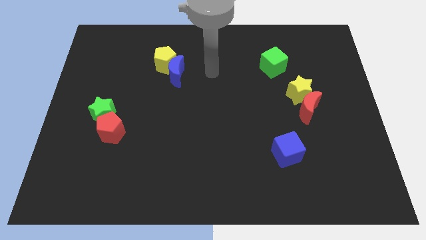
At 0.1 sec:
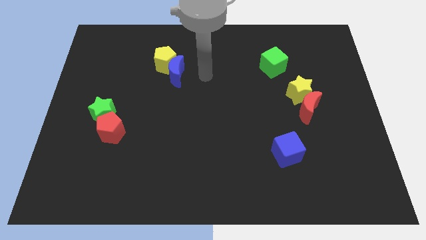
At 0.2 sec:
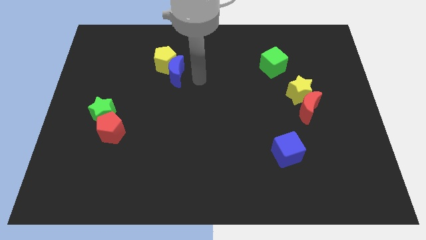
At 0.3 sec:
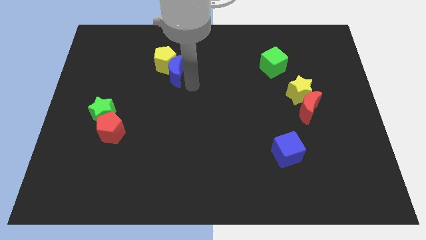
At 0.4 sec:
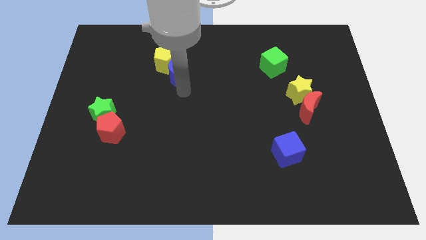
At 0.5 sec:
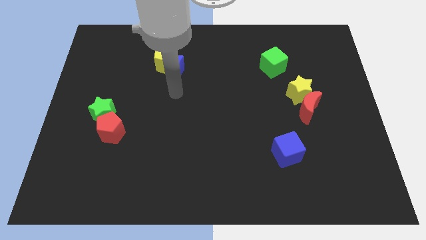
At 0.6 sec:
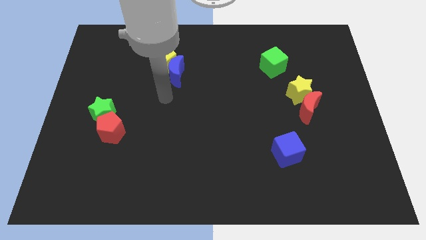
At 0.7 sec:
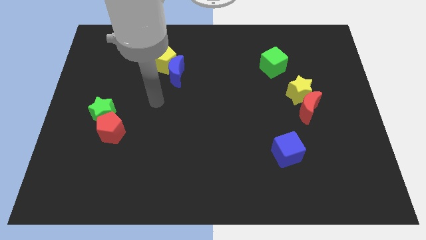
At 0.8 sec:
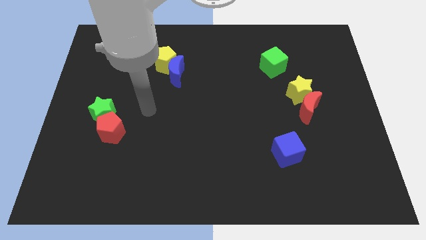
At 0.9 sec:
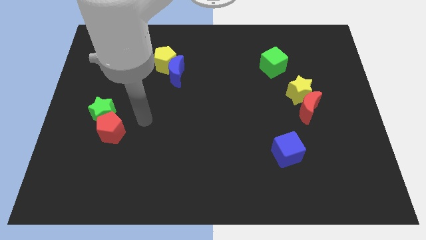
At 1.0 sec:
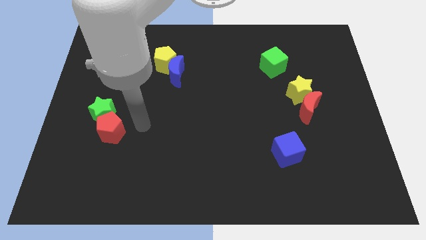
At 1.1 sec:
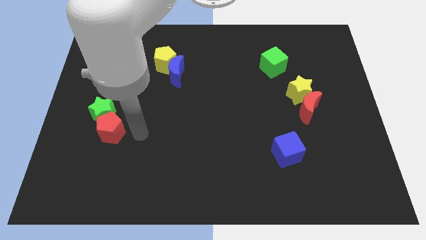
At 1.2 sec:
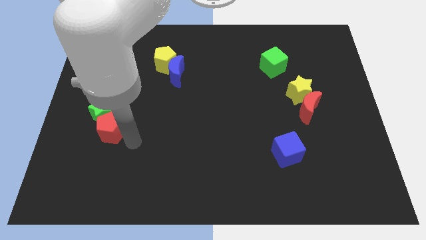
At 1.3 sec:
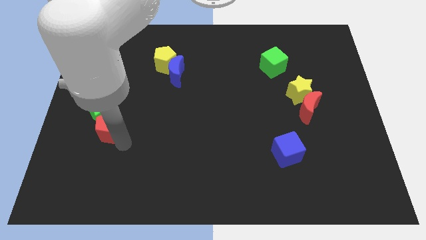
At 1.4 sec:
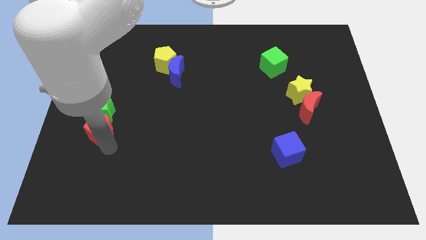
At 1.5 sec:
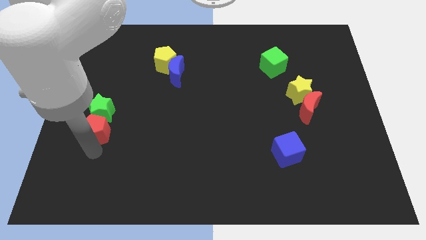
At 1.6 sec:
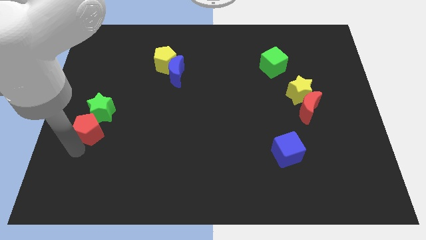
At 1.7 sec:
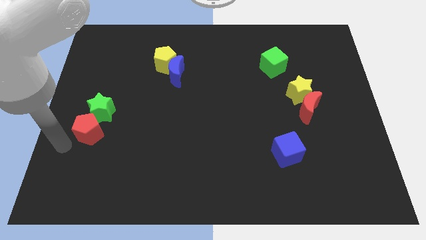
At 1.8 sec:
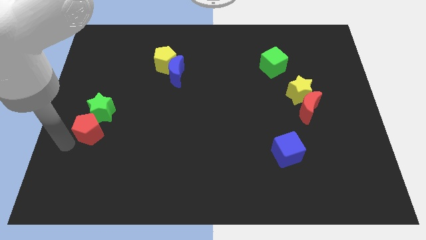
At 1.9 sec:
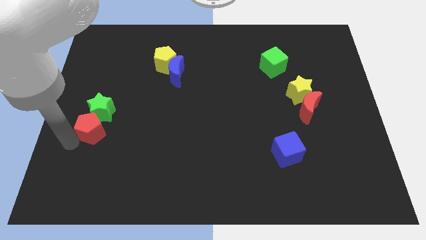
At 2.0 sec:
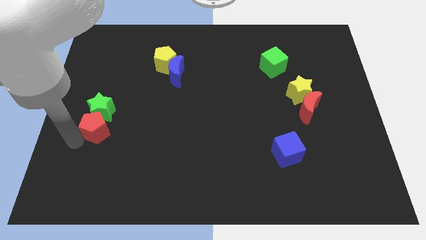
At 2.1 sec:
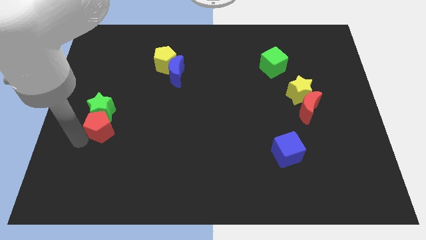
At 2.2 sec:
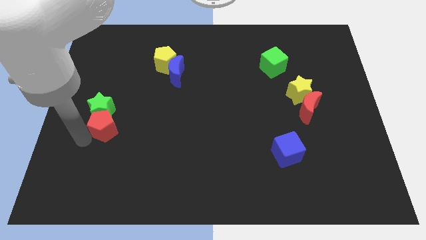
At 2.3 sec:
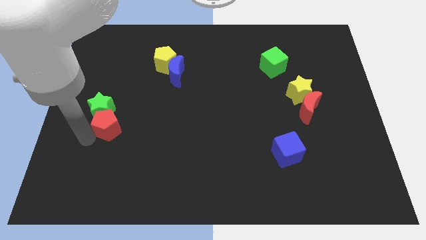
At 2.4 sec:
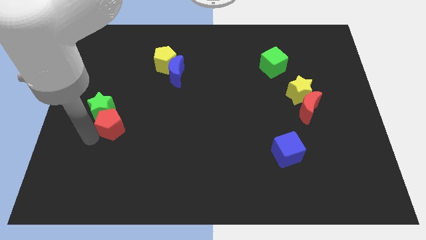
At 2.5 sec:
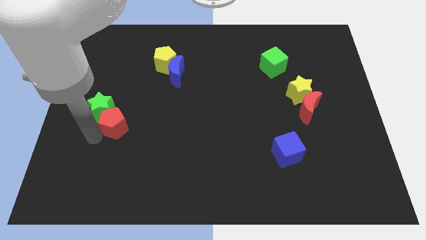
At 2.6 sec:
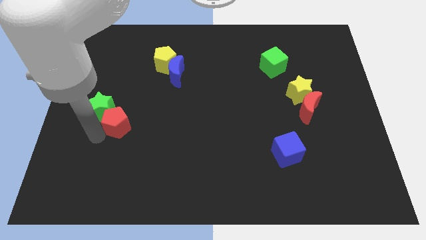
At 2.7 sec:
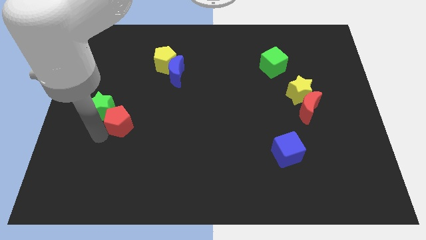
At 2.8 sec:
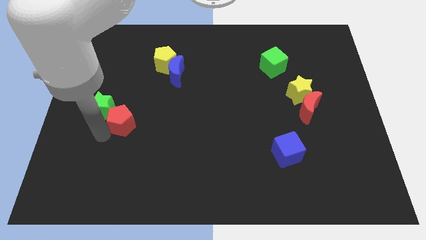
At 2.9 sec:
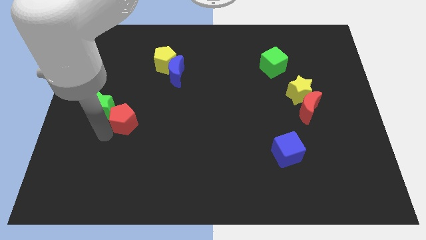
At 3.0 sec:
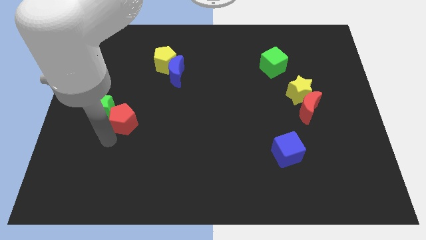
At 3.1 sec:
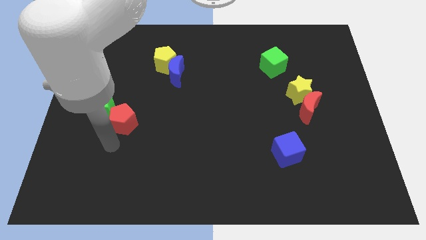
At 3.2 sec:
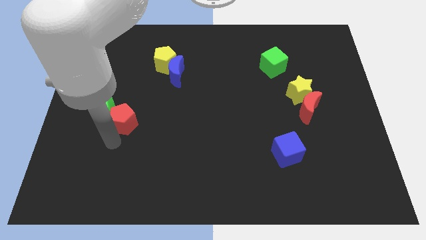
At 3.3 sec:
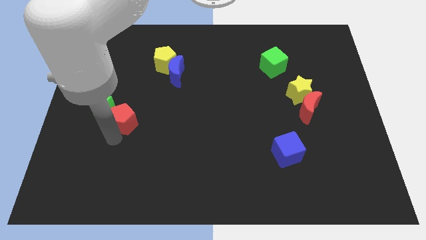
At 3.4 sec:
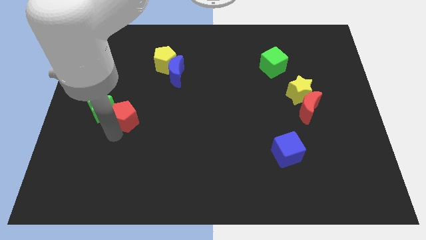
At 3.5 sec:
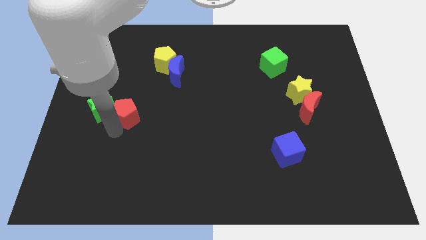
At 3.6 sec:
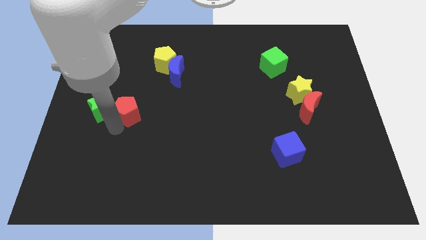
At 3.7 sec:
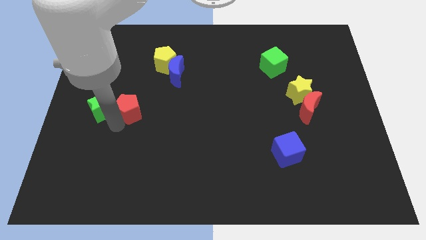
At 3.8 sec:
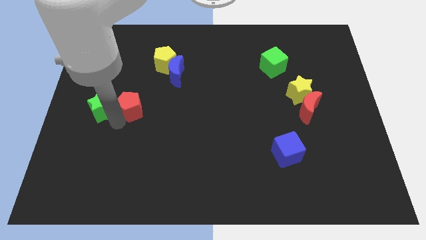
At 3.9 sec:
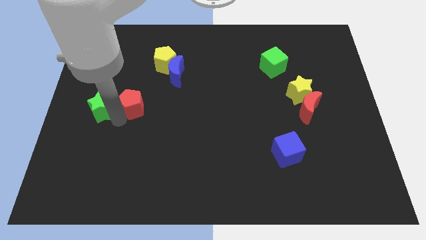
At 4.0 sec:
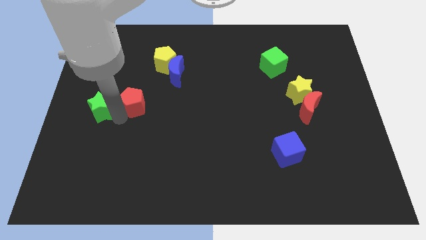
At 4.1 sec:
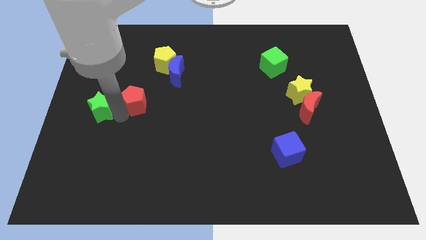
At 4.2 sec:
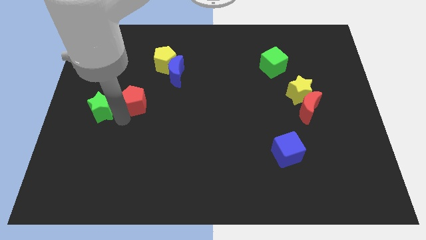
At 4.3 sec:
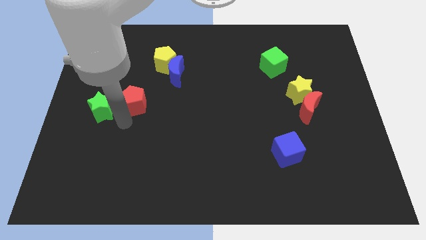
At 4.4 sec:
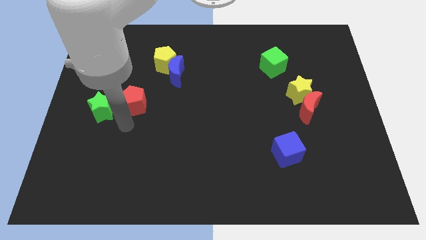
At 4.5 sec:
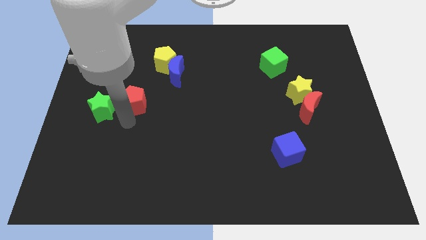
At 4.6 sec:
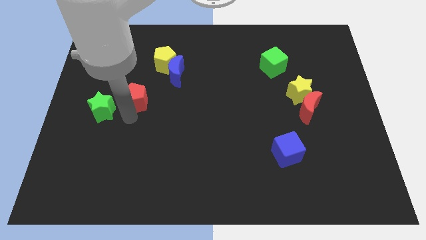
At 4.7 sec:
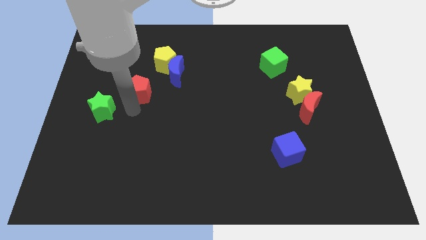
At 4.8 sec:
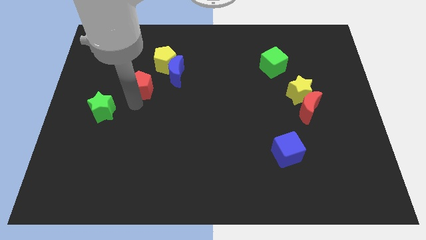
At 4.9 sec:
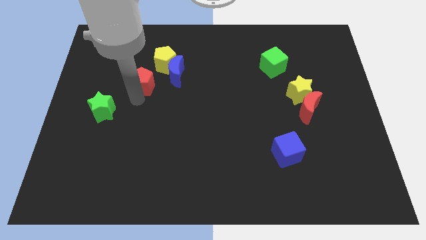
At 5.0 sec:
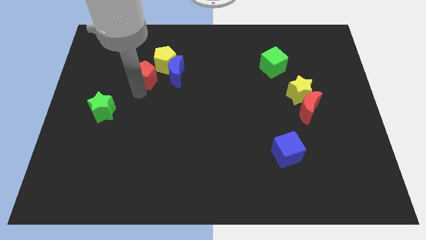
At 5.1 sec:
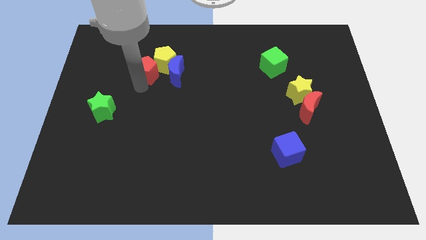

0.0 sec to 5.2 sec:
put the red pentagon close to the yellow pentagon

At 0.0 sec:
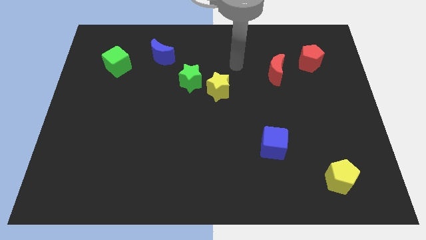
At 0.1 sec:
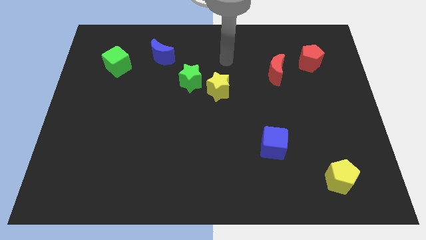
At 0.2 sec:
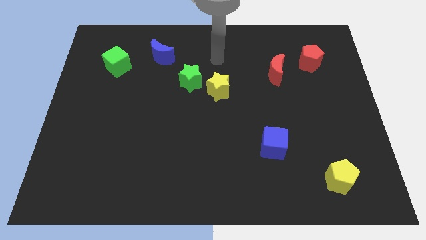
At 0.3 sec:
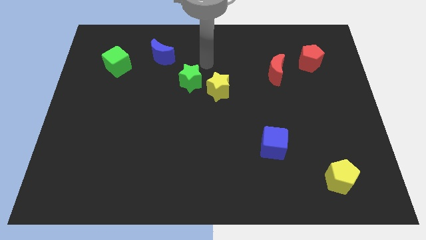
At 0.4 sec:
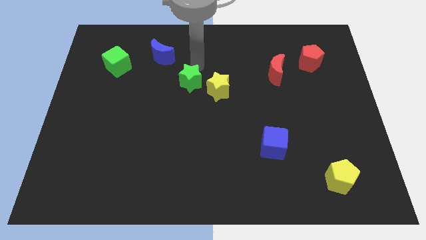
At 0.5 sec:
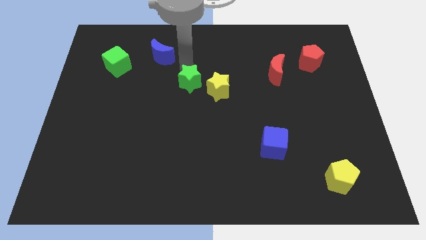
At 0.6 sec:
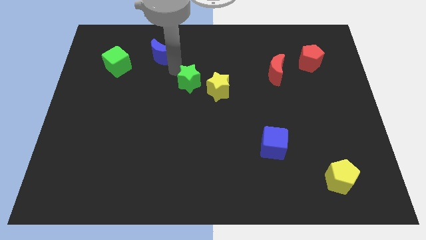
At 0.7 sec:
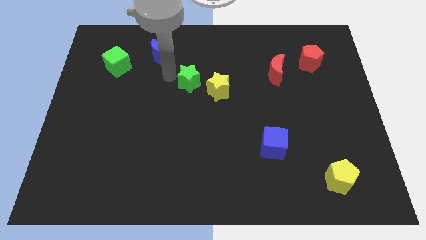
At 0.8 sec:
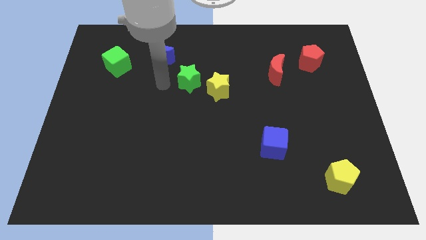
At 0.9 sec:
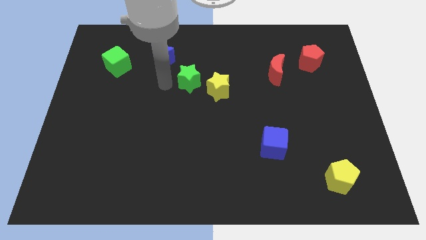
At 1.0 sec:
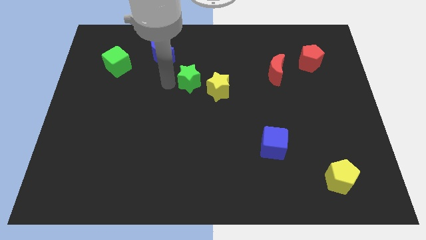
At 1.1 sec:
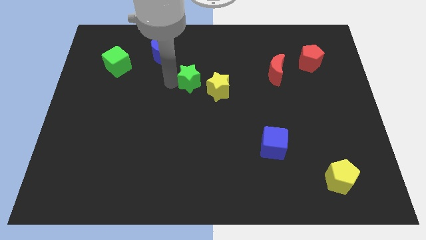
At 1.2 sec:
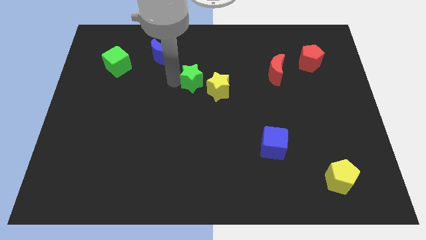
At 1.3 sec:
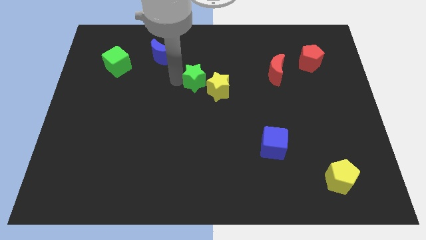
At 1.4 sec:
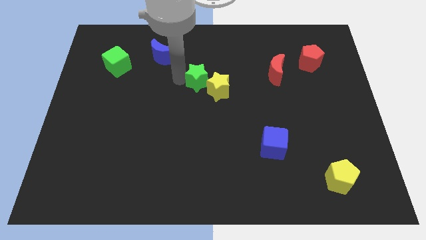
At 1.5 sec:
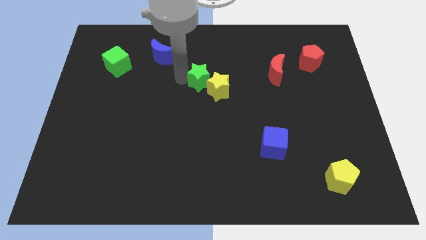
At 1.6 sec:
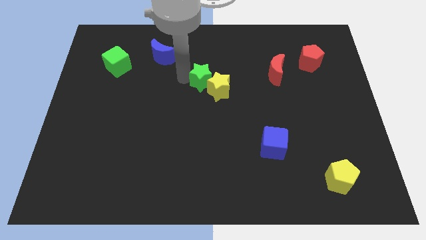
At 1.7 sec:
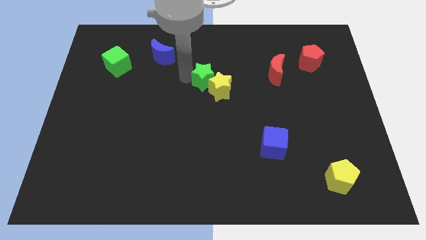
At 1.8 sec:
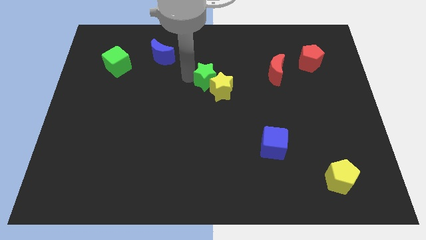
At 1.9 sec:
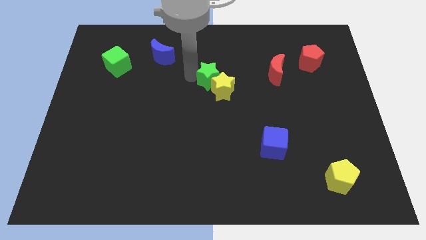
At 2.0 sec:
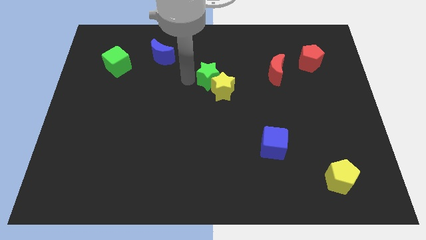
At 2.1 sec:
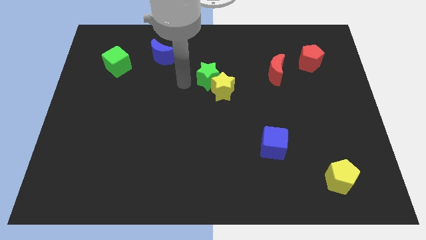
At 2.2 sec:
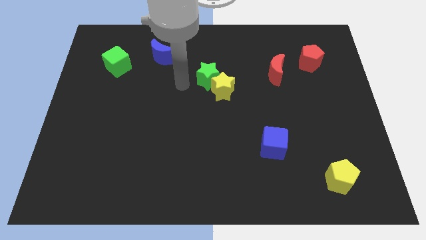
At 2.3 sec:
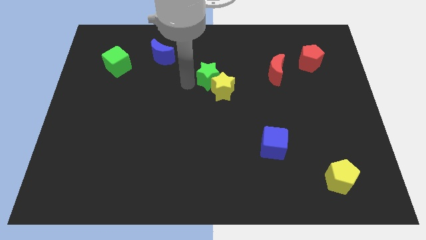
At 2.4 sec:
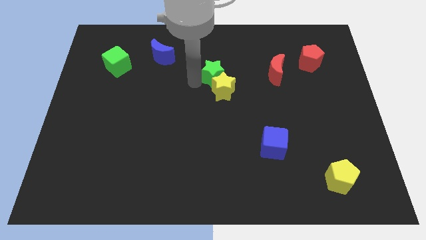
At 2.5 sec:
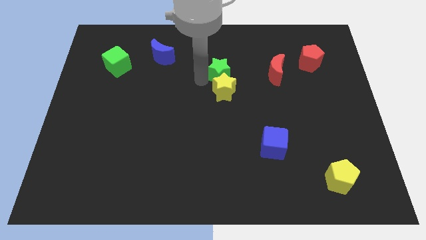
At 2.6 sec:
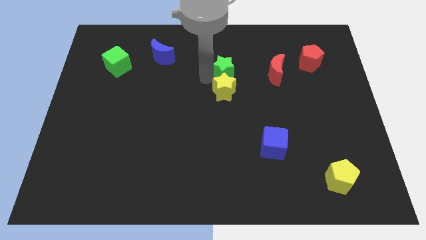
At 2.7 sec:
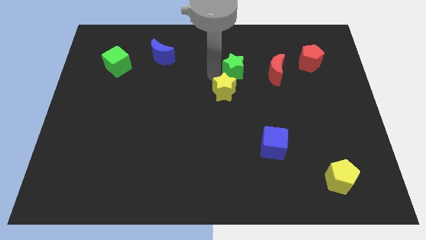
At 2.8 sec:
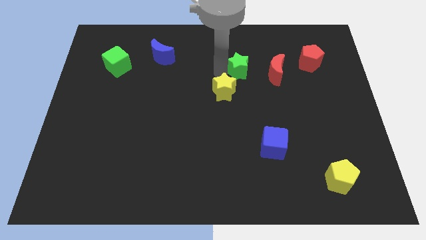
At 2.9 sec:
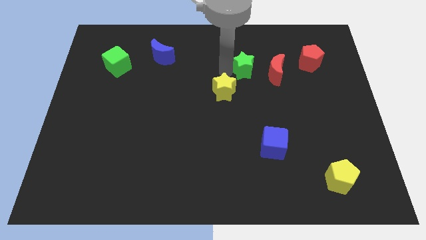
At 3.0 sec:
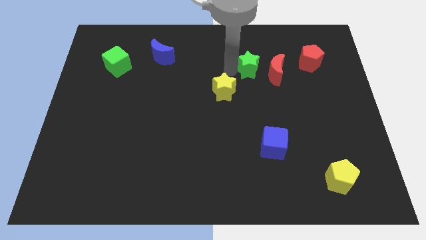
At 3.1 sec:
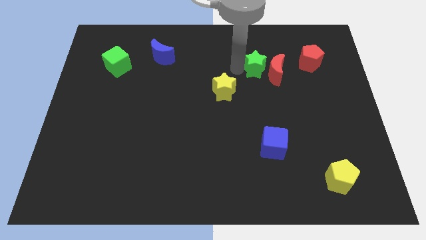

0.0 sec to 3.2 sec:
move the green star towards the red moon
